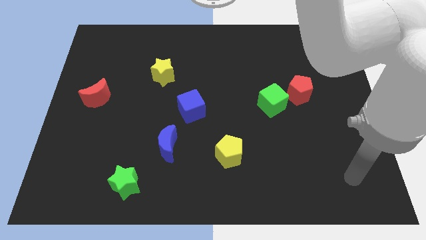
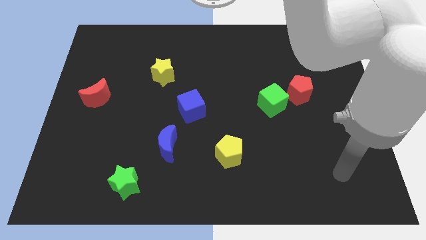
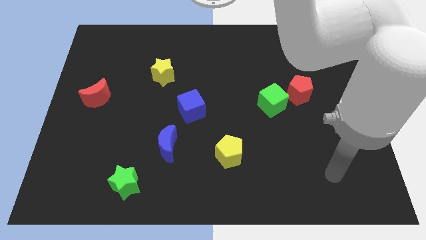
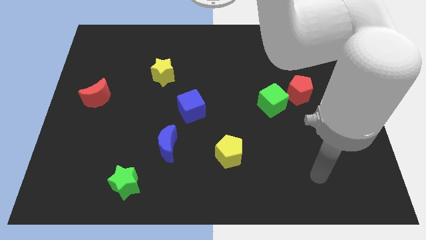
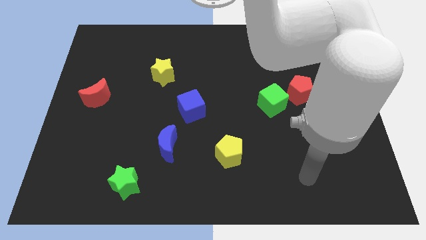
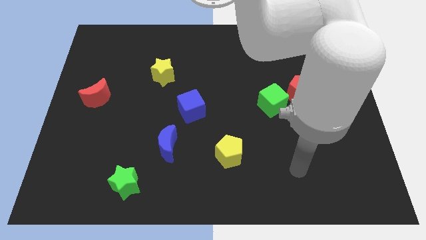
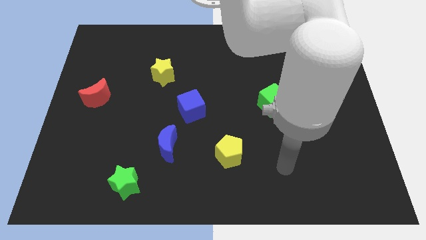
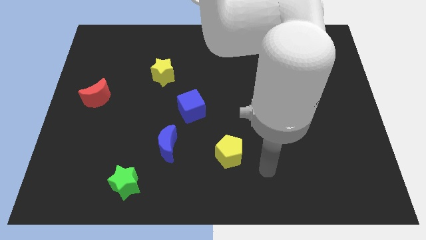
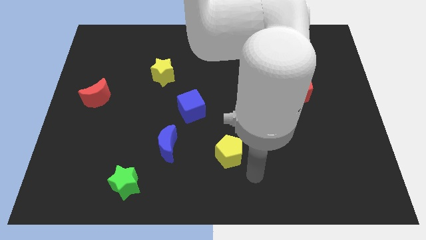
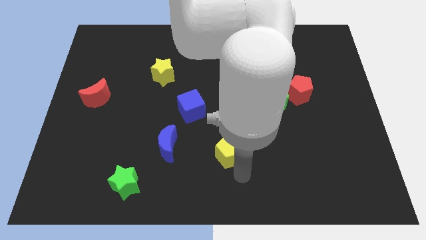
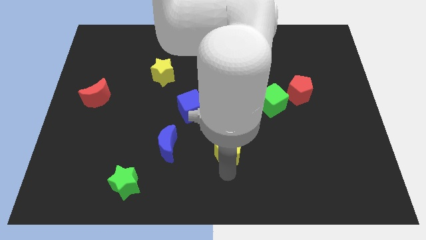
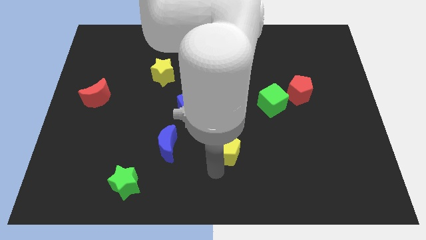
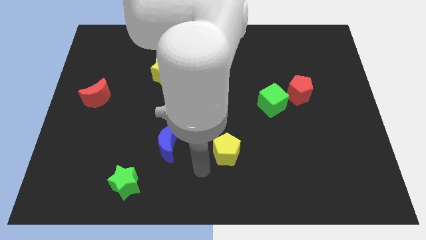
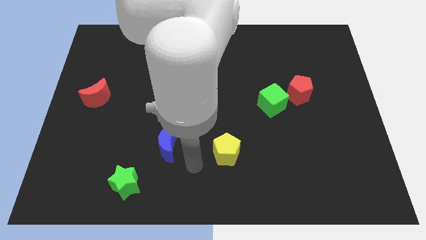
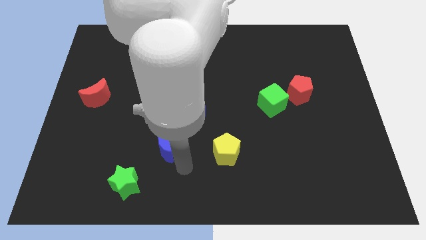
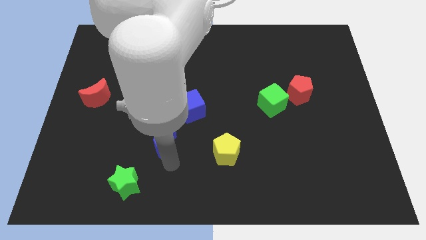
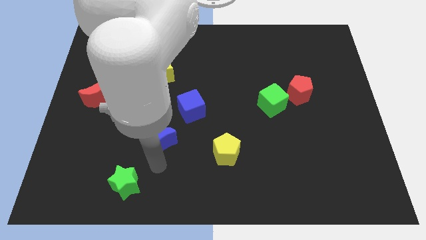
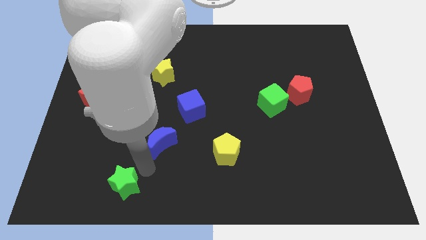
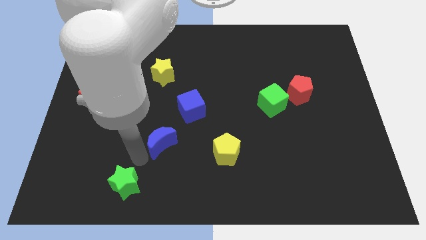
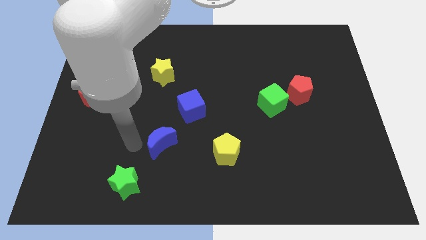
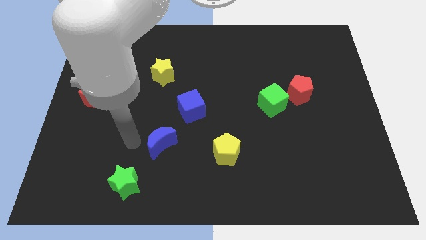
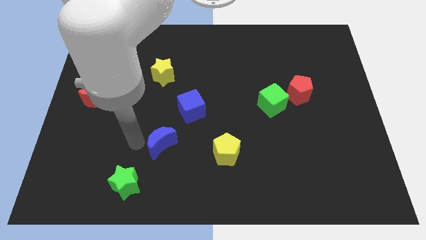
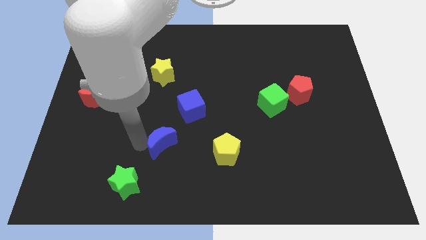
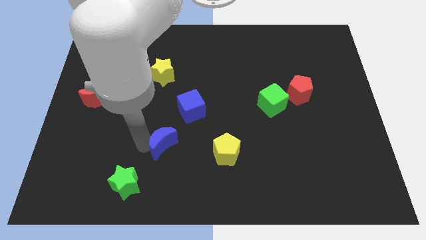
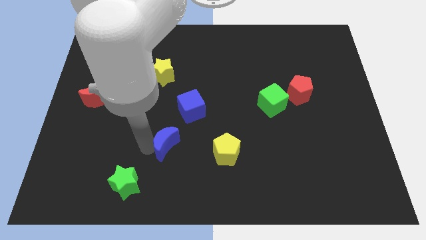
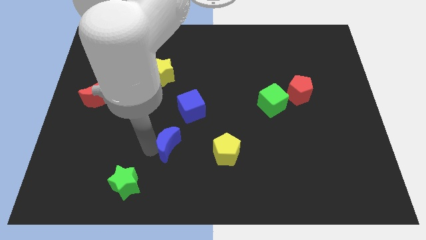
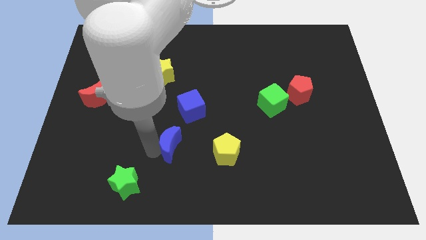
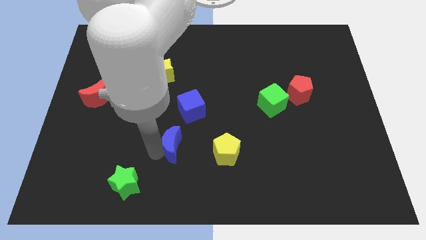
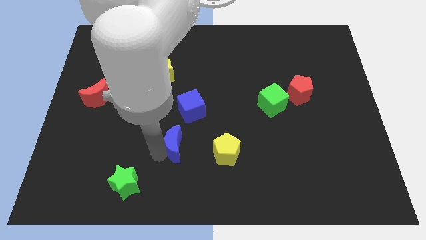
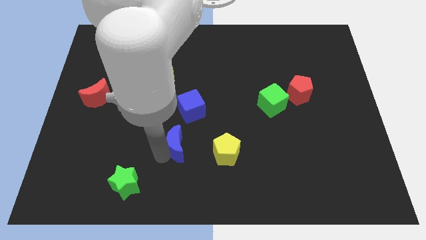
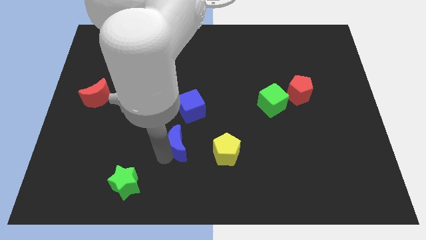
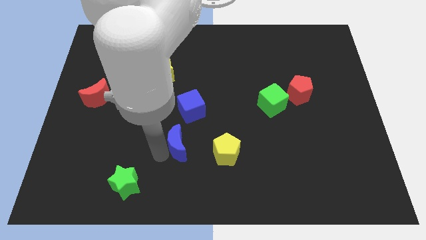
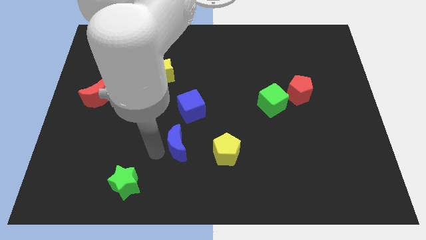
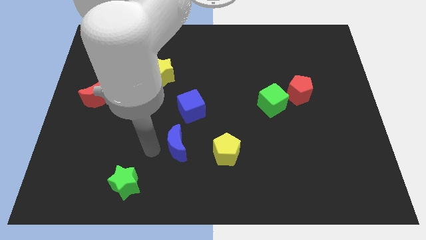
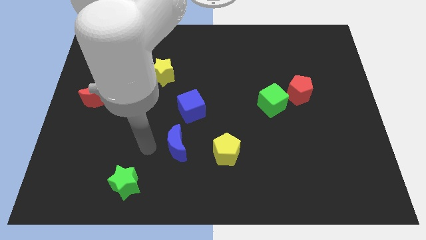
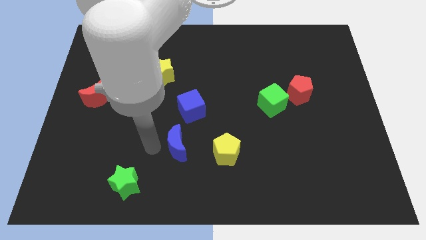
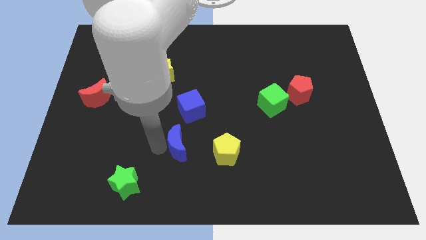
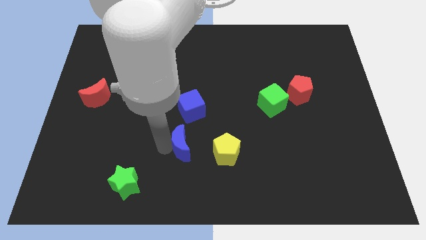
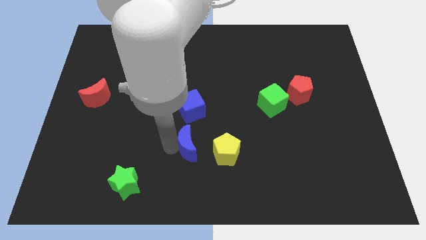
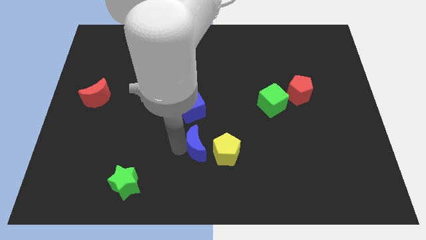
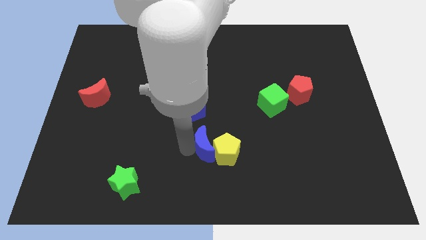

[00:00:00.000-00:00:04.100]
slightly slide the blue moon right

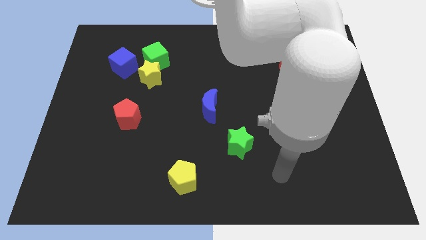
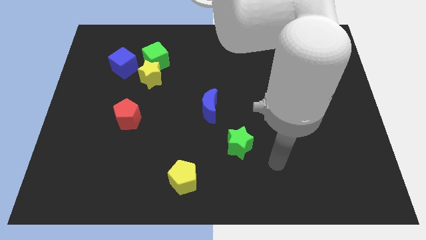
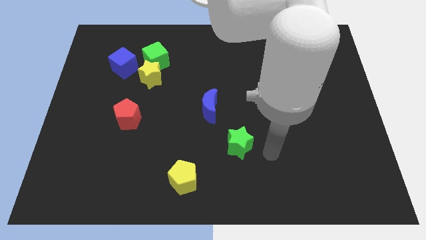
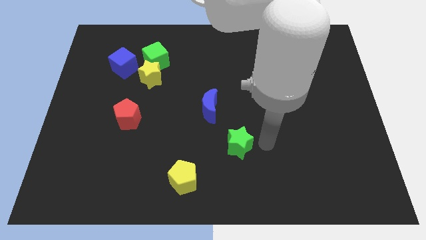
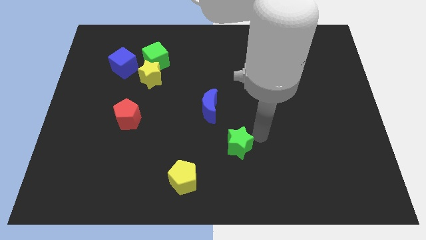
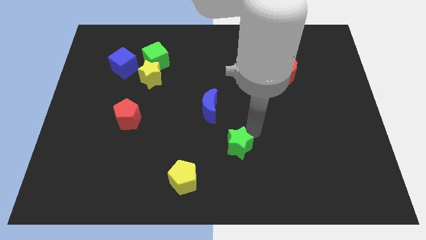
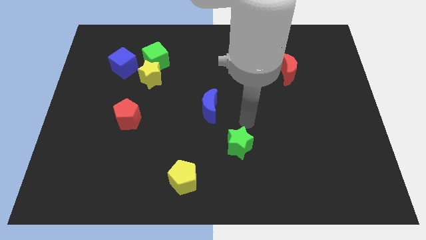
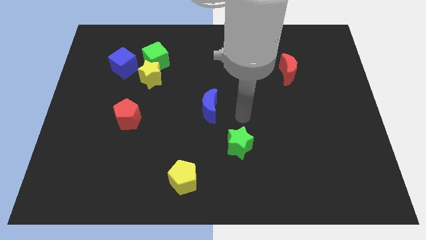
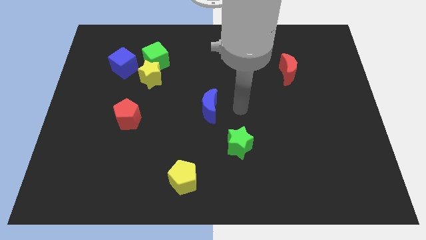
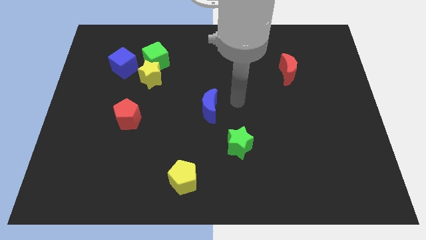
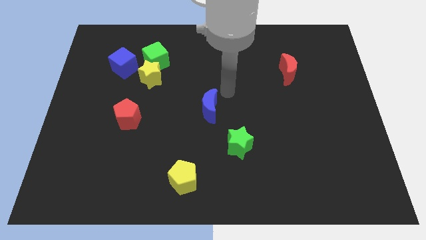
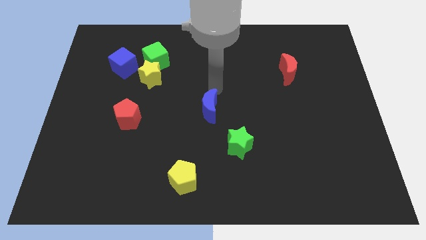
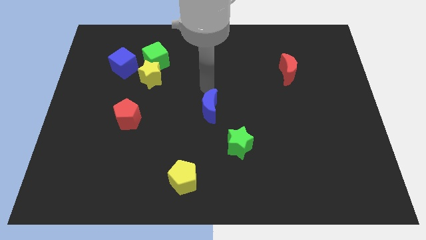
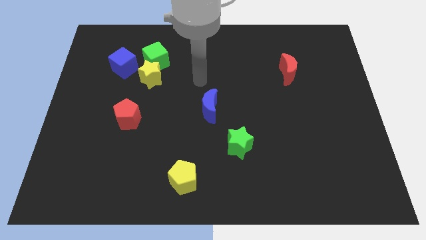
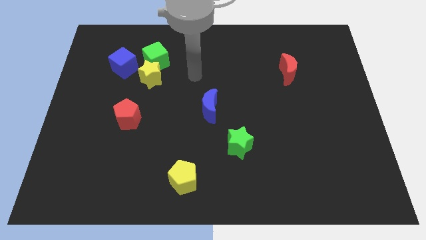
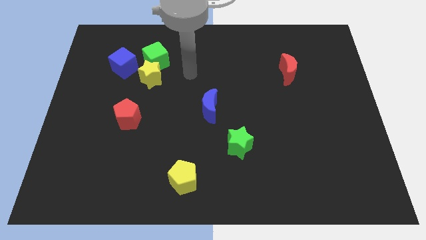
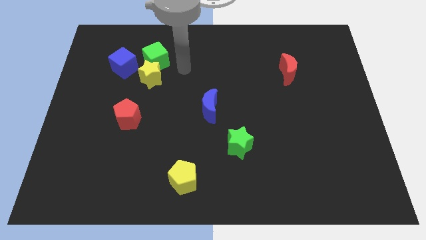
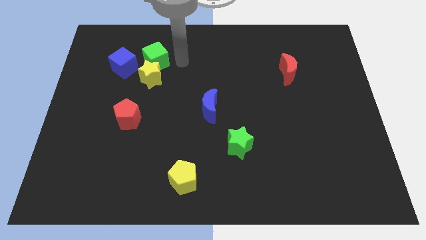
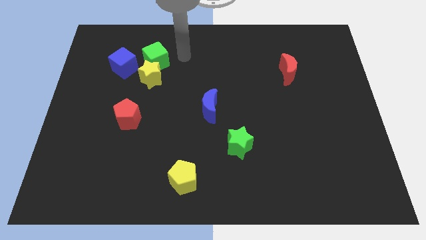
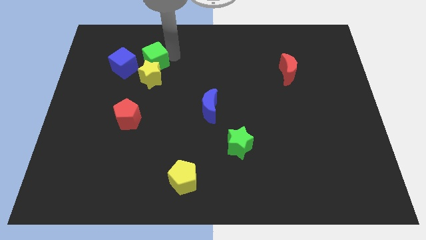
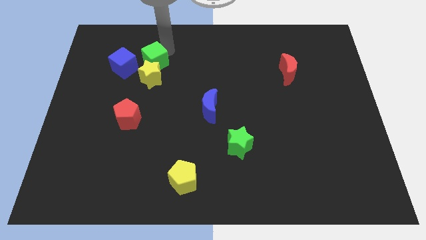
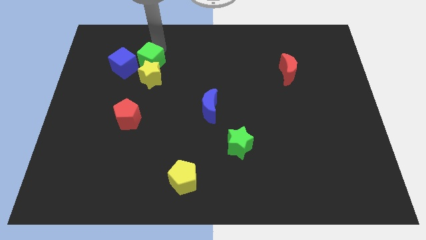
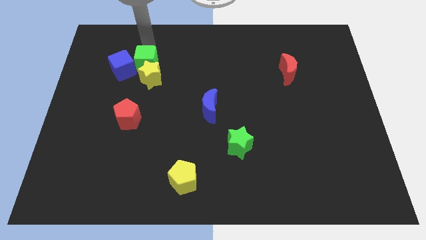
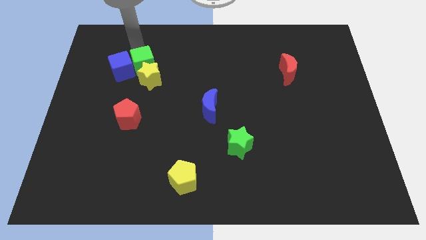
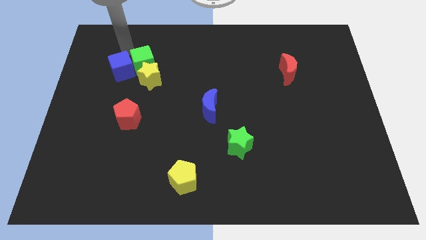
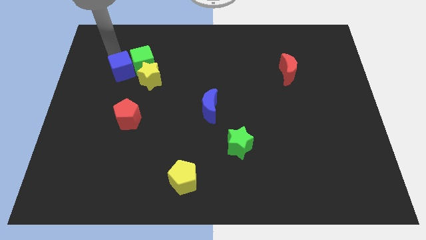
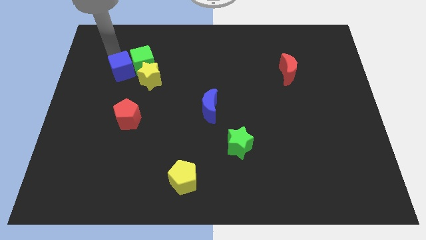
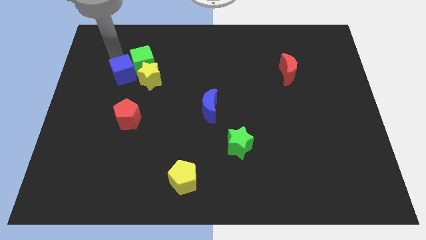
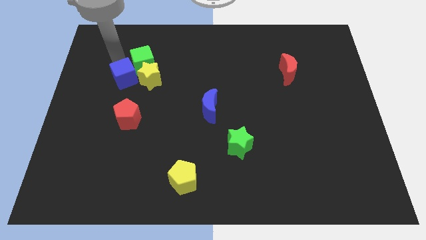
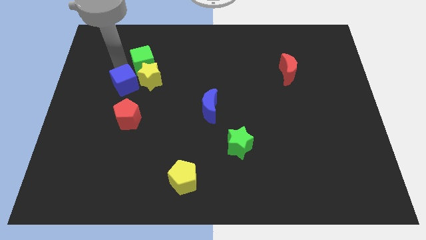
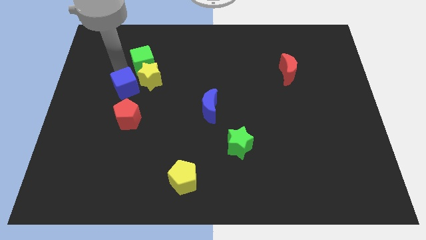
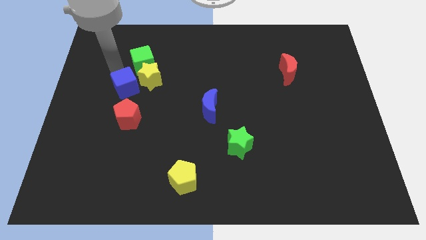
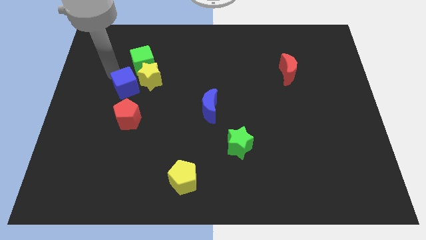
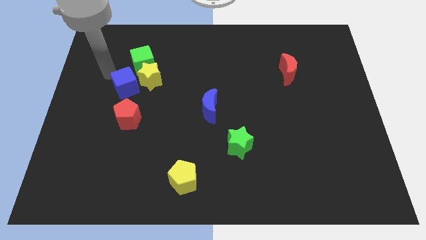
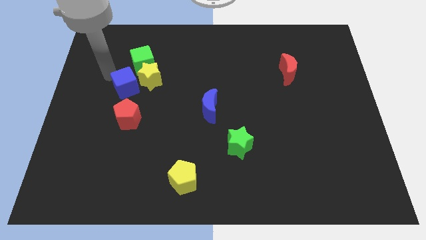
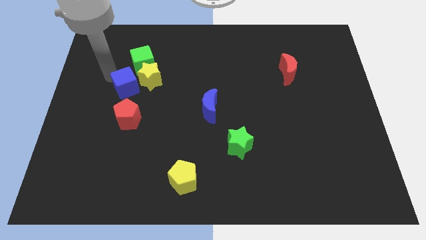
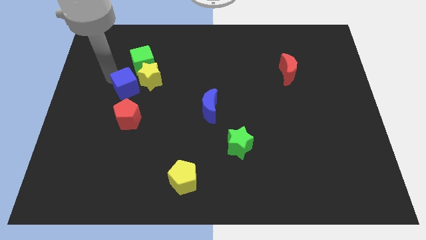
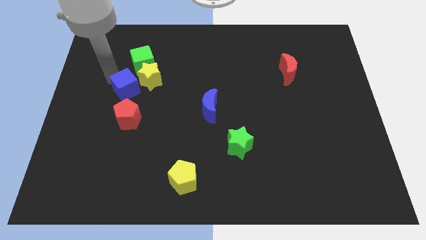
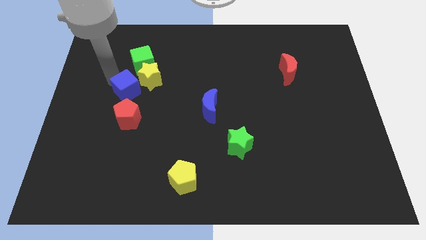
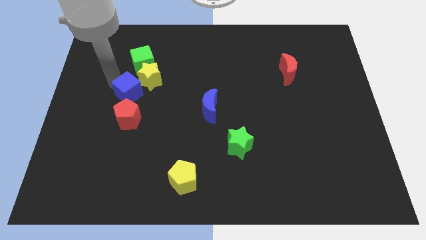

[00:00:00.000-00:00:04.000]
move the blue cube down and to the right a little

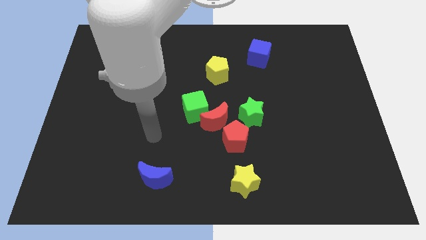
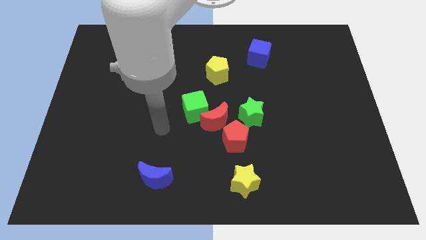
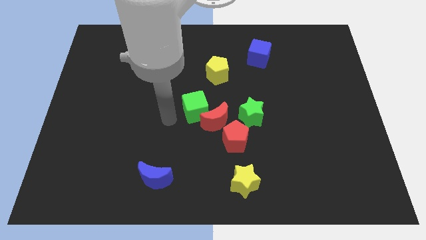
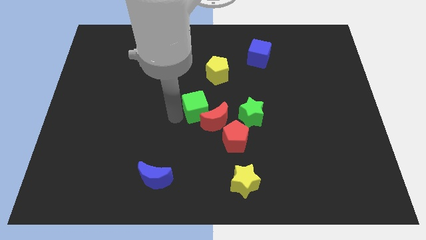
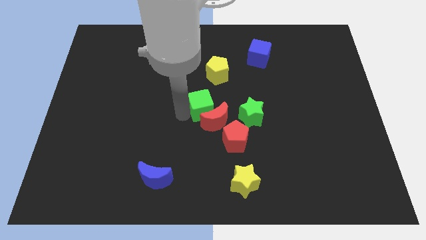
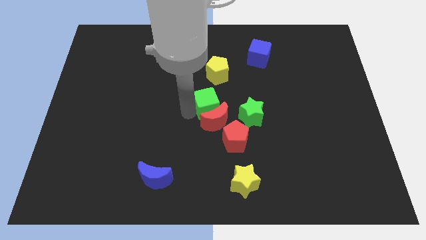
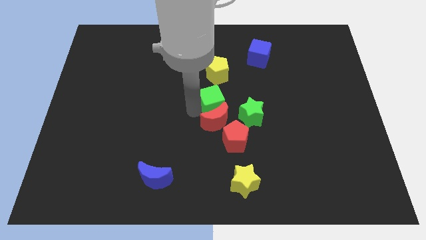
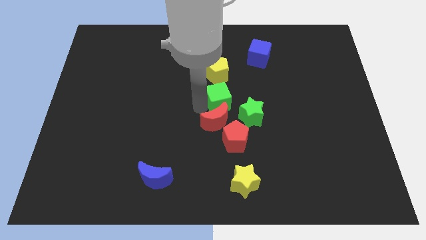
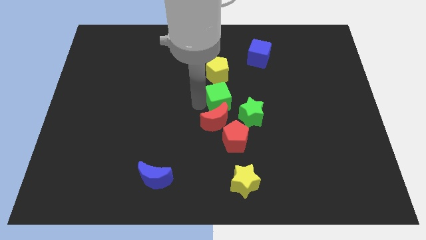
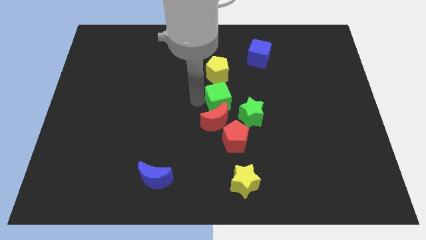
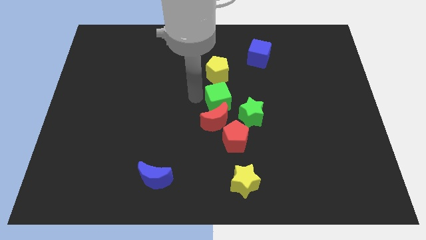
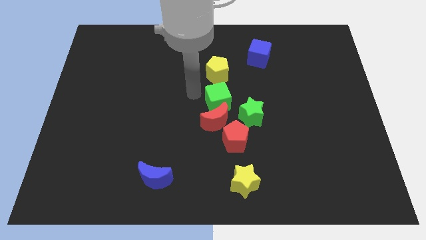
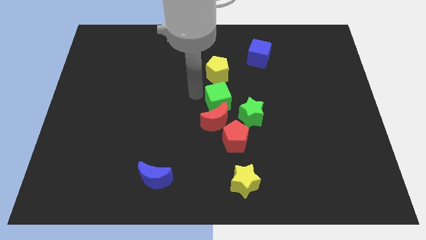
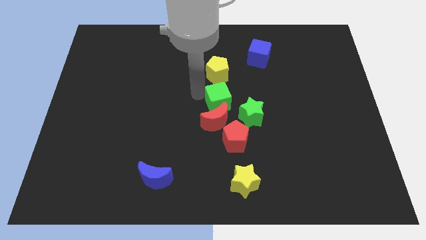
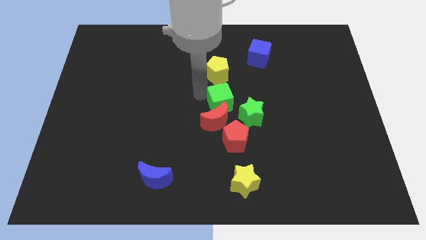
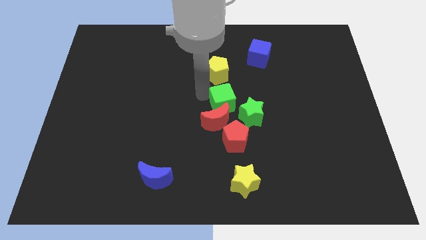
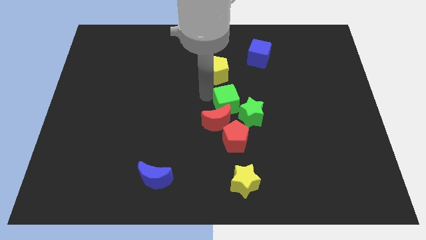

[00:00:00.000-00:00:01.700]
push the green cube slightly to the right
